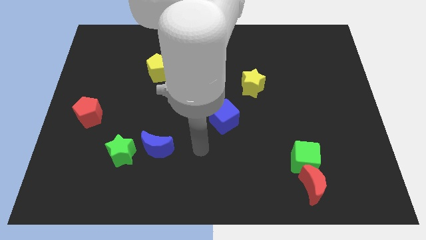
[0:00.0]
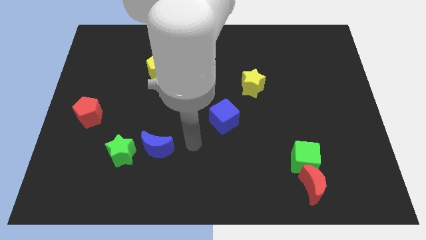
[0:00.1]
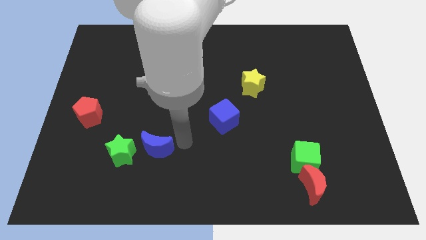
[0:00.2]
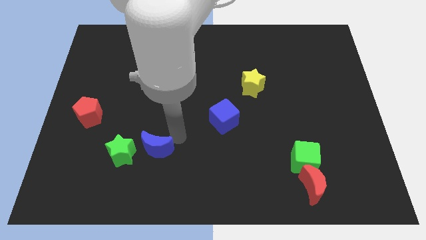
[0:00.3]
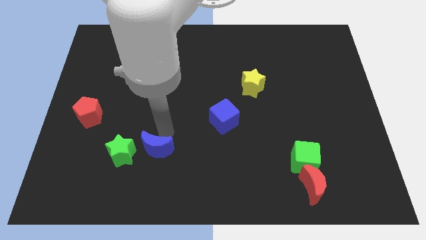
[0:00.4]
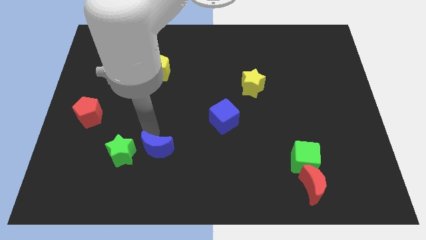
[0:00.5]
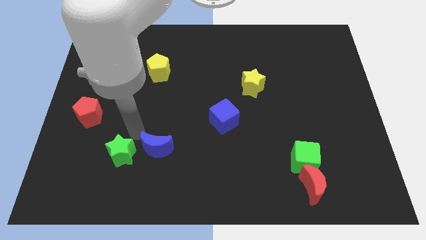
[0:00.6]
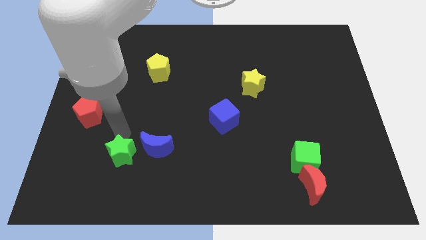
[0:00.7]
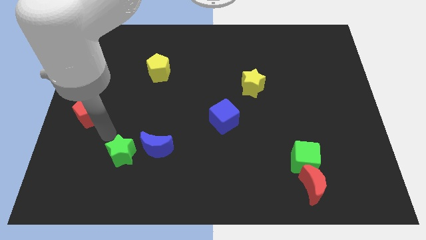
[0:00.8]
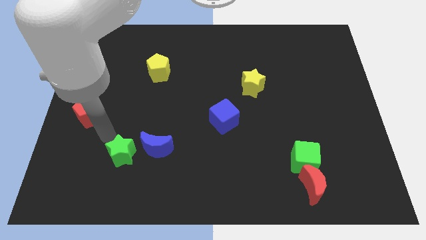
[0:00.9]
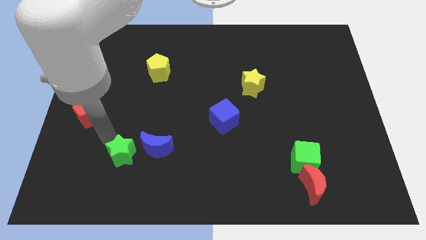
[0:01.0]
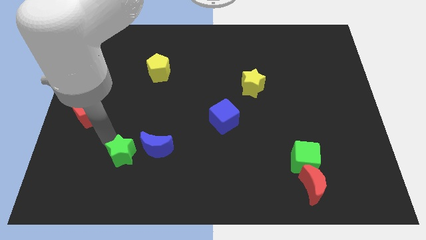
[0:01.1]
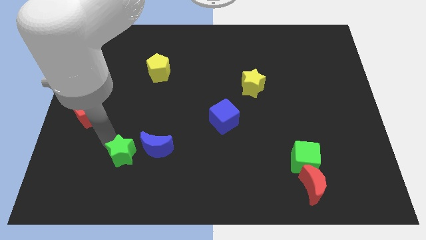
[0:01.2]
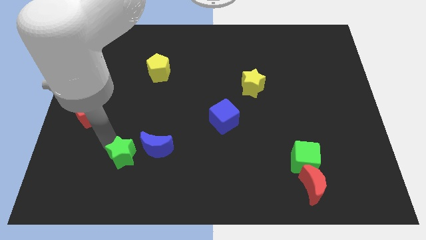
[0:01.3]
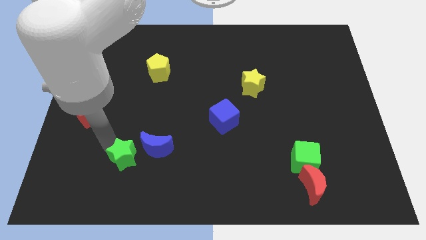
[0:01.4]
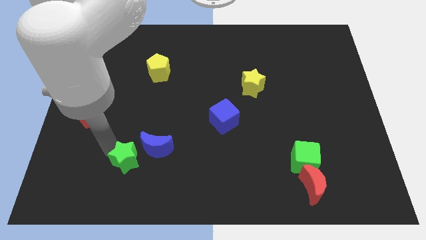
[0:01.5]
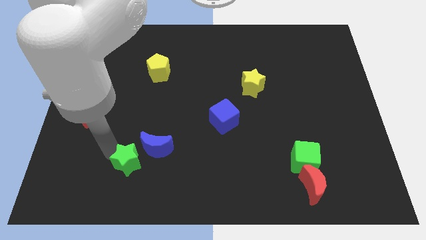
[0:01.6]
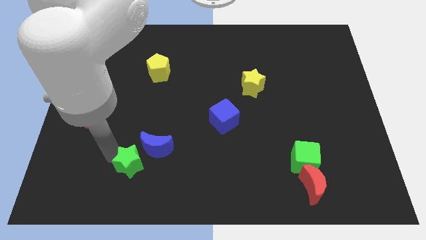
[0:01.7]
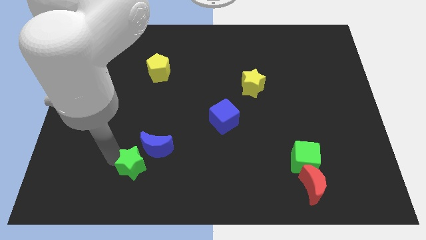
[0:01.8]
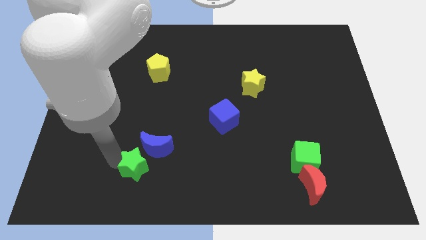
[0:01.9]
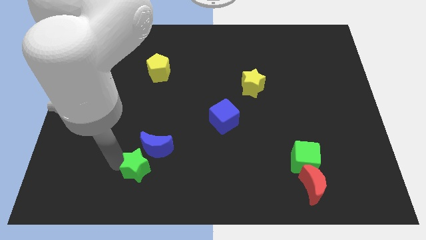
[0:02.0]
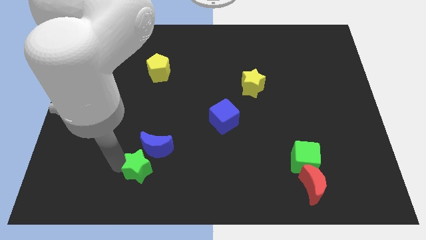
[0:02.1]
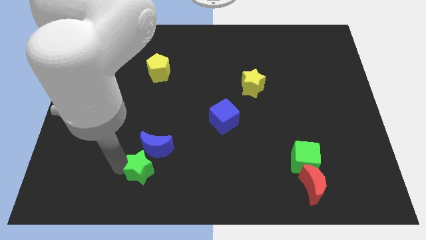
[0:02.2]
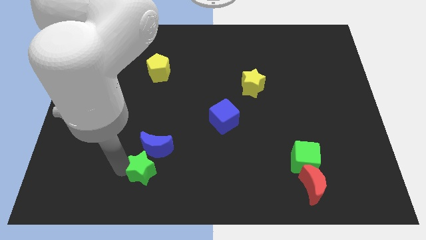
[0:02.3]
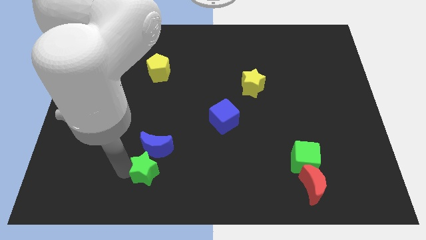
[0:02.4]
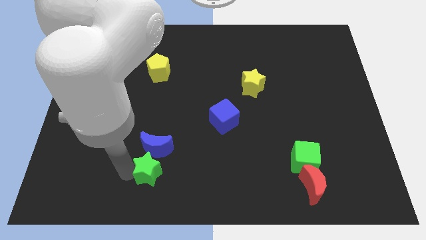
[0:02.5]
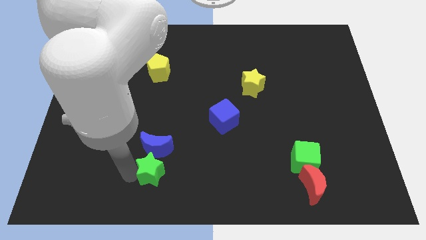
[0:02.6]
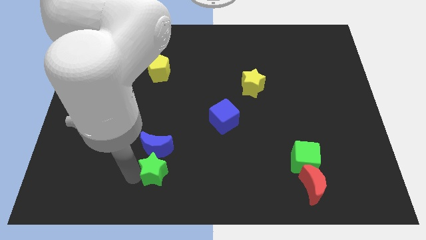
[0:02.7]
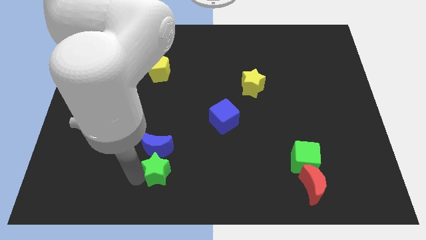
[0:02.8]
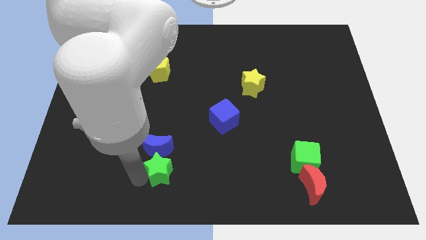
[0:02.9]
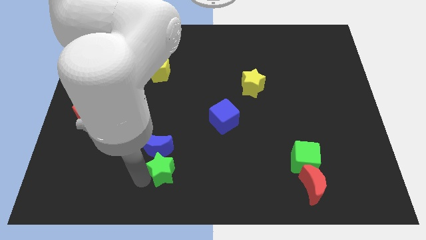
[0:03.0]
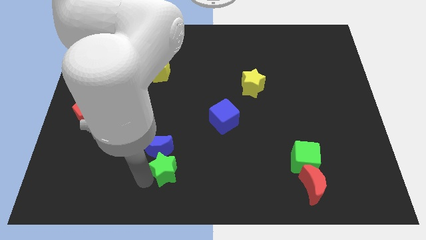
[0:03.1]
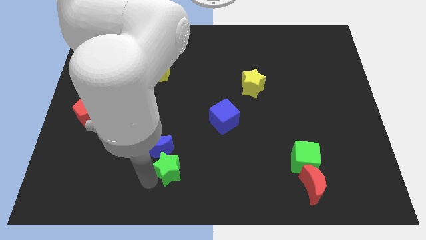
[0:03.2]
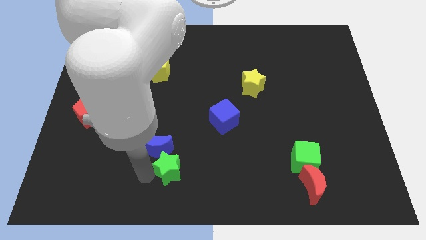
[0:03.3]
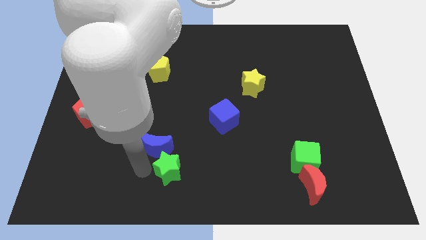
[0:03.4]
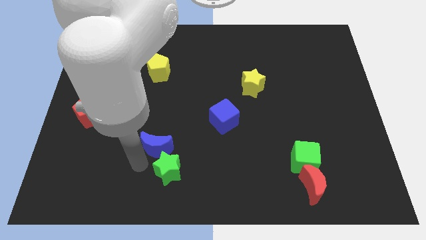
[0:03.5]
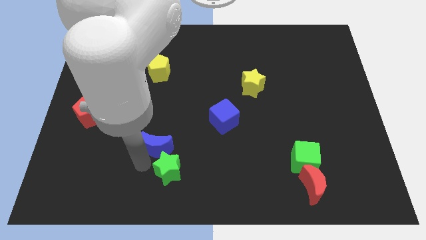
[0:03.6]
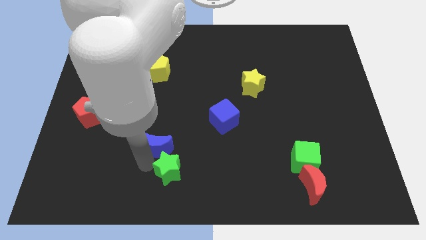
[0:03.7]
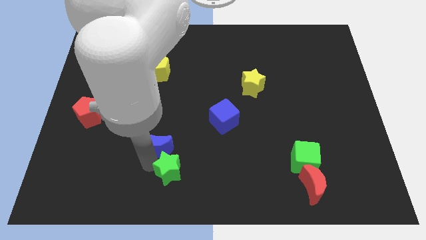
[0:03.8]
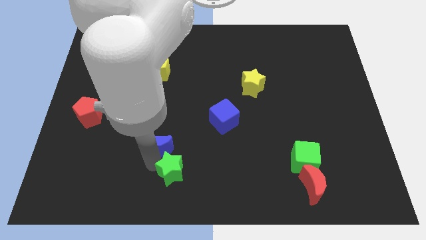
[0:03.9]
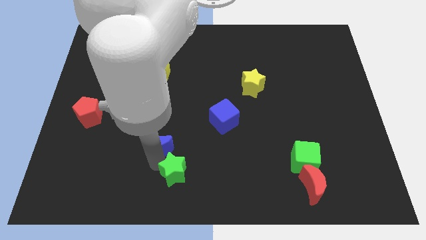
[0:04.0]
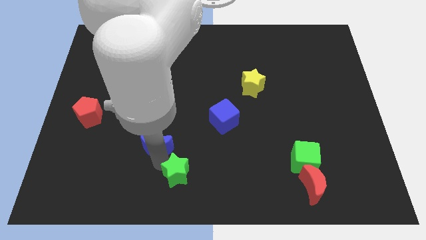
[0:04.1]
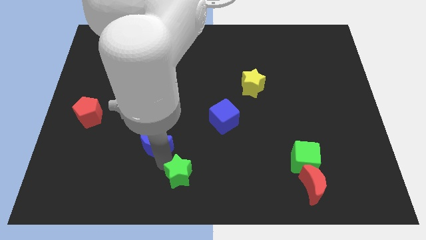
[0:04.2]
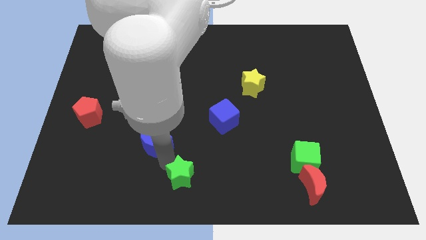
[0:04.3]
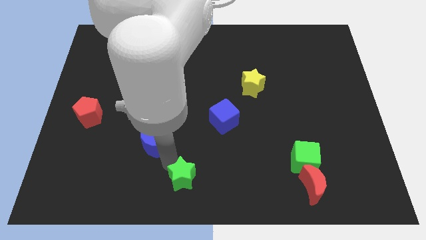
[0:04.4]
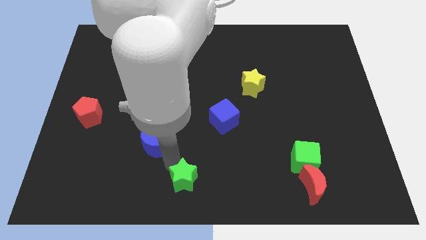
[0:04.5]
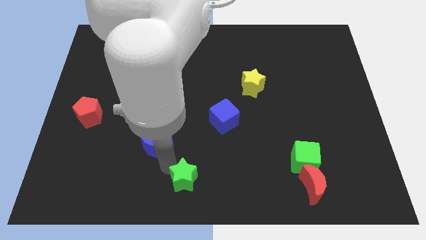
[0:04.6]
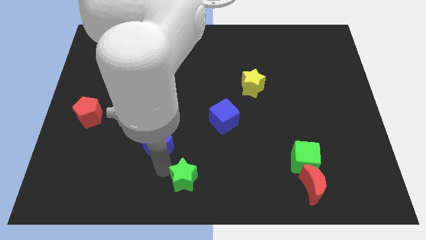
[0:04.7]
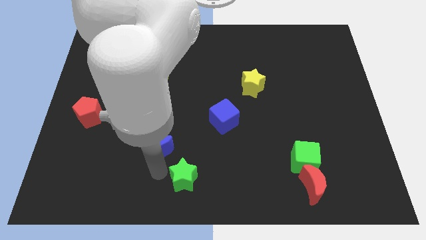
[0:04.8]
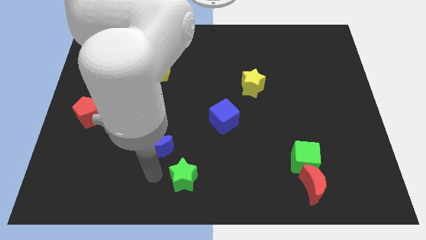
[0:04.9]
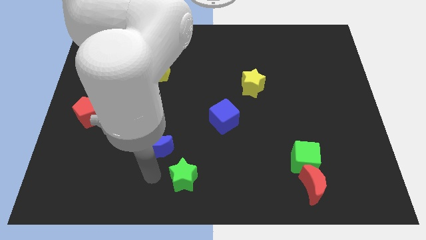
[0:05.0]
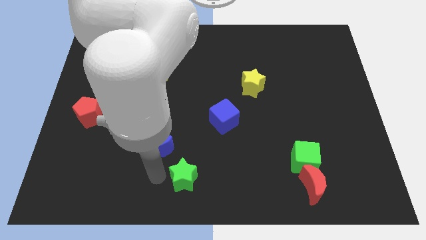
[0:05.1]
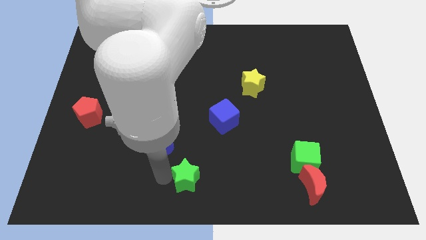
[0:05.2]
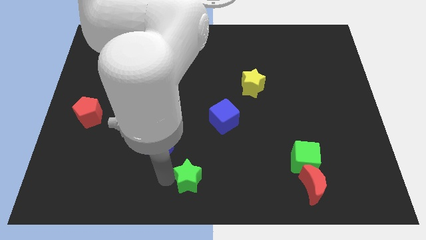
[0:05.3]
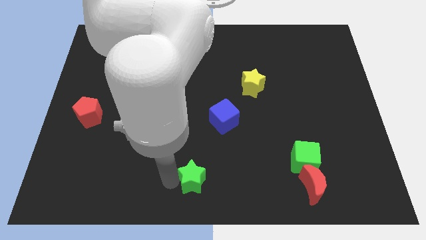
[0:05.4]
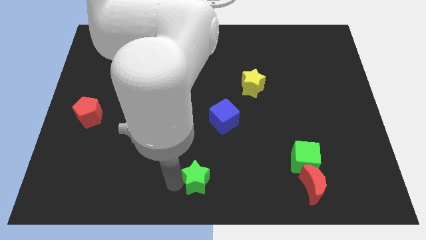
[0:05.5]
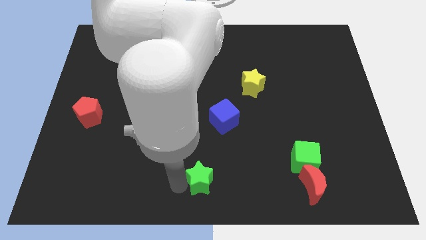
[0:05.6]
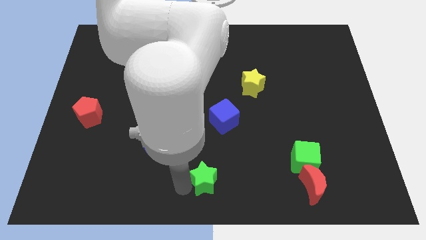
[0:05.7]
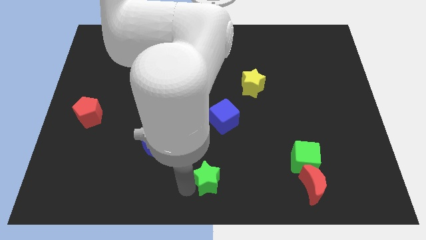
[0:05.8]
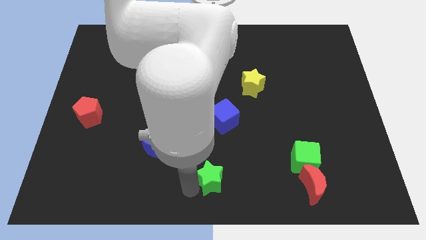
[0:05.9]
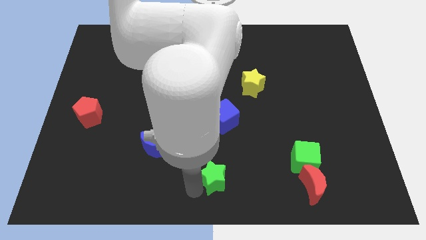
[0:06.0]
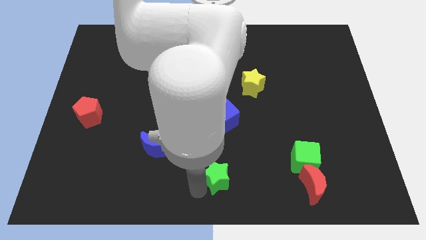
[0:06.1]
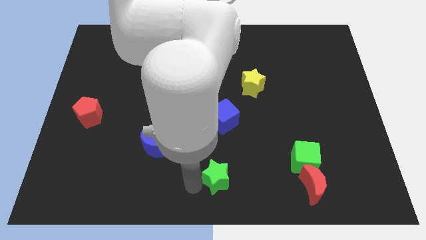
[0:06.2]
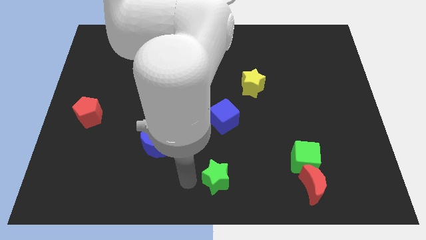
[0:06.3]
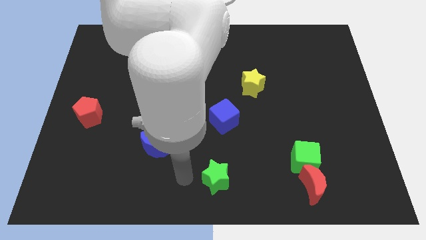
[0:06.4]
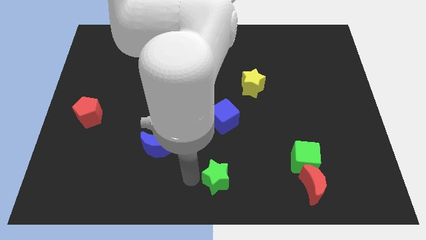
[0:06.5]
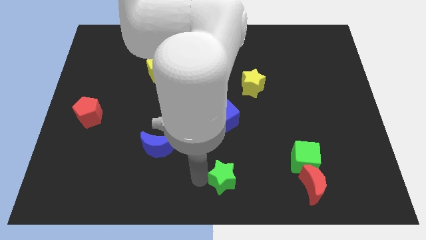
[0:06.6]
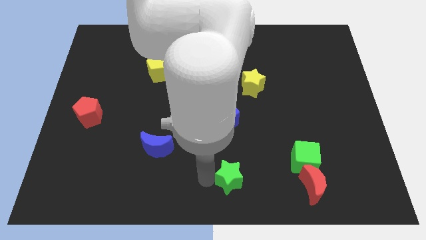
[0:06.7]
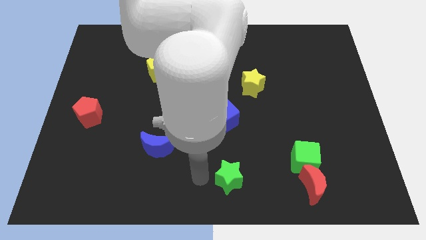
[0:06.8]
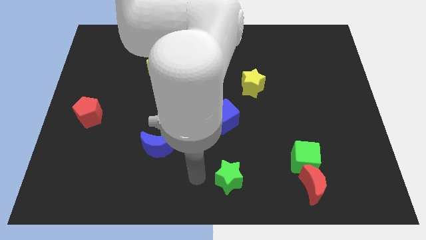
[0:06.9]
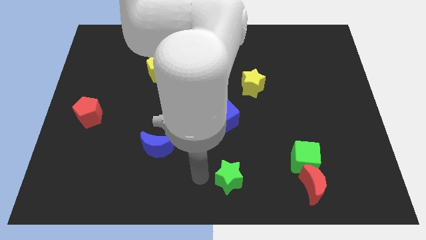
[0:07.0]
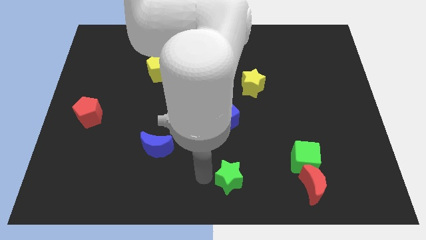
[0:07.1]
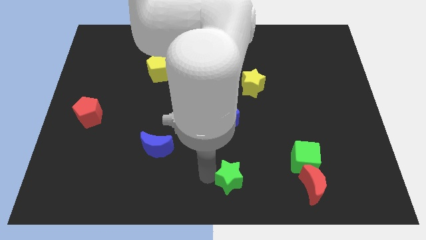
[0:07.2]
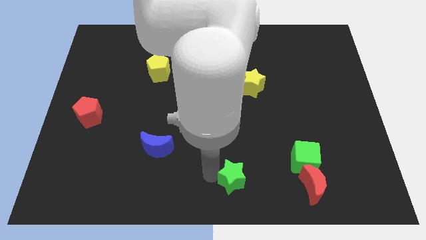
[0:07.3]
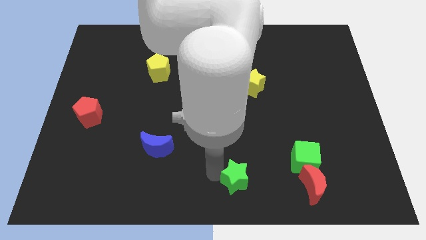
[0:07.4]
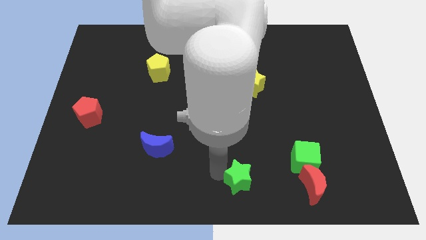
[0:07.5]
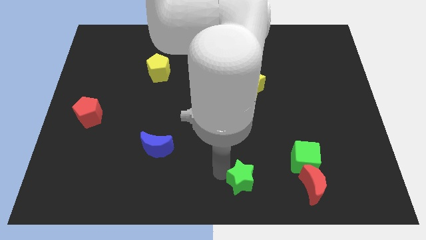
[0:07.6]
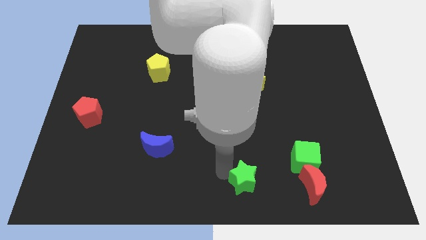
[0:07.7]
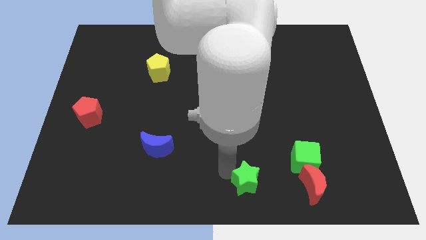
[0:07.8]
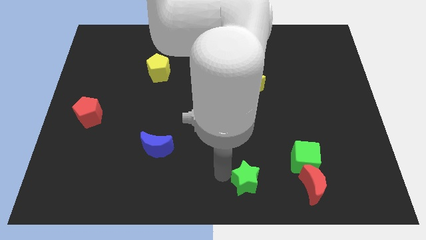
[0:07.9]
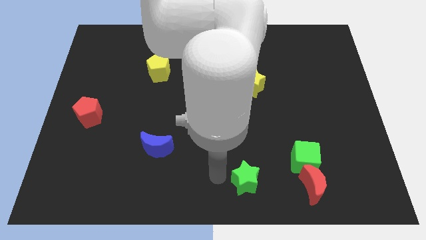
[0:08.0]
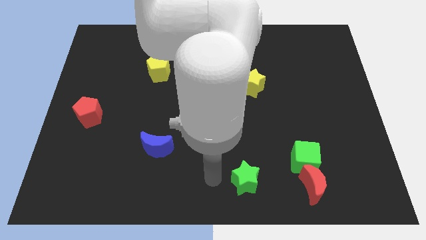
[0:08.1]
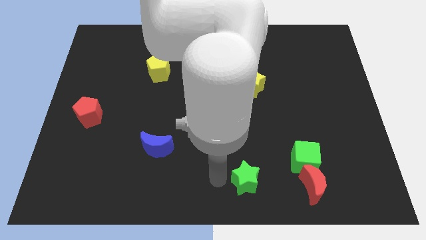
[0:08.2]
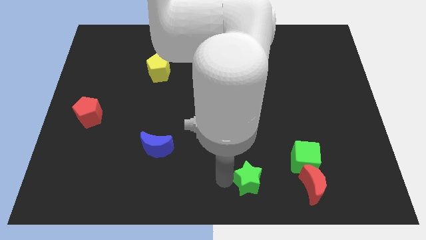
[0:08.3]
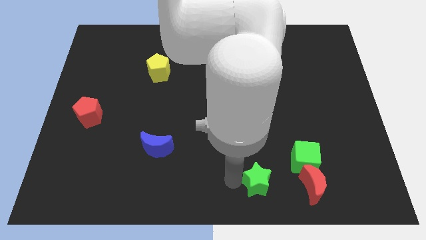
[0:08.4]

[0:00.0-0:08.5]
move the green star diagonally down and to the left of the green cube
